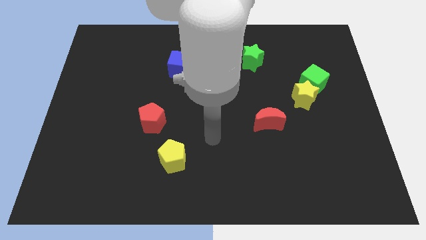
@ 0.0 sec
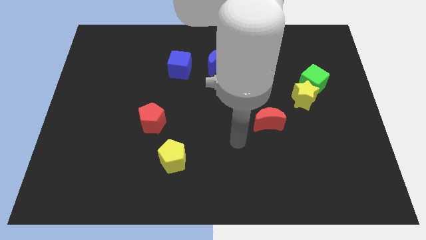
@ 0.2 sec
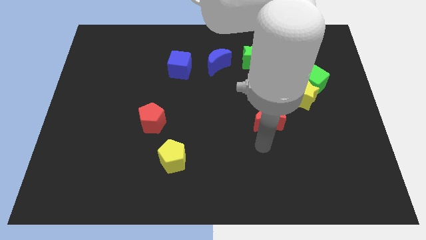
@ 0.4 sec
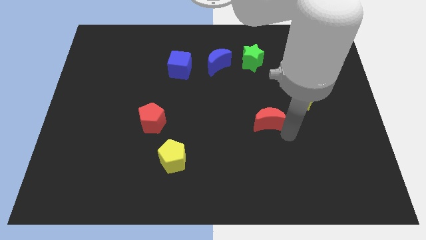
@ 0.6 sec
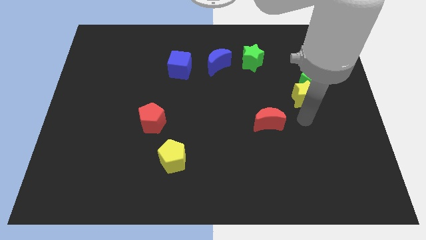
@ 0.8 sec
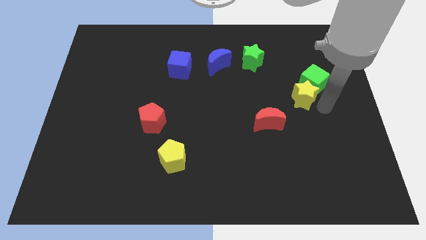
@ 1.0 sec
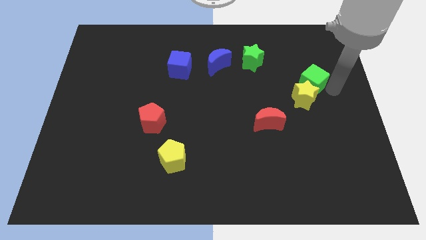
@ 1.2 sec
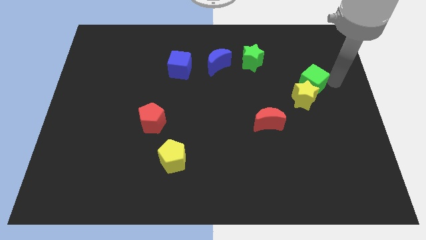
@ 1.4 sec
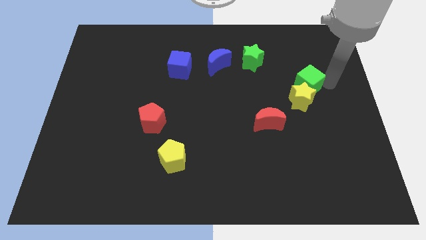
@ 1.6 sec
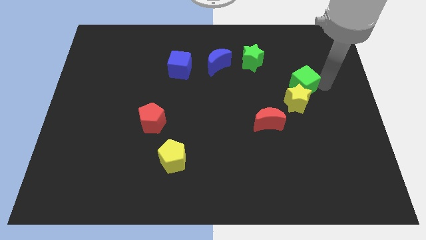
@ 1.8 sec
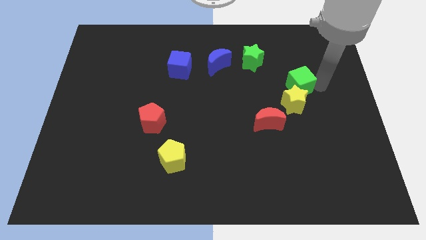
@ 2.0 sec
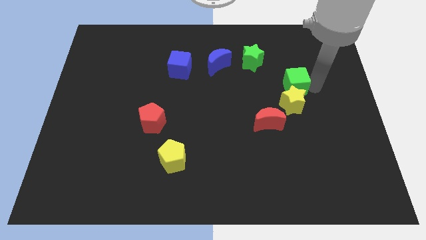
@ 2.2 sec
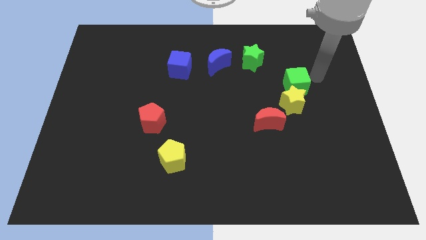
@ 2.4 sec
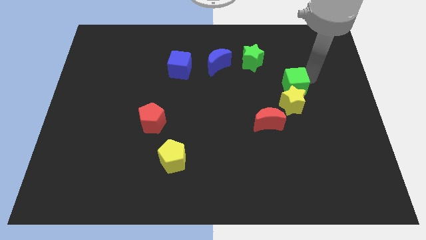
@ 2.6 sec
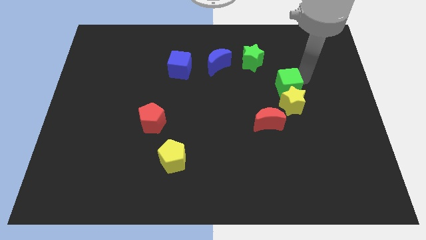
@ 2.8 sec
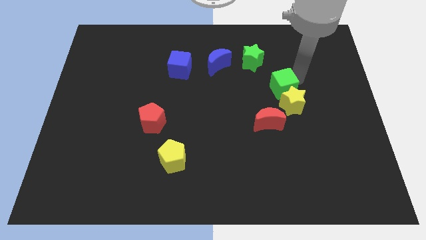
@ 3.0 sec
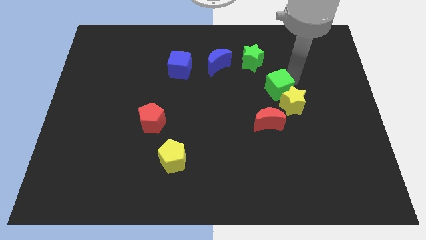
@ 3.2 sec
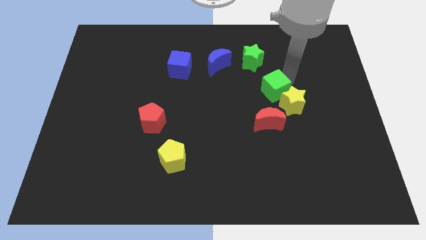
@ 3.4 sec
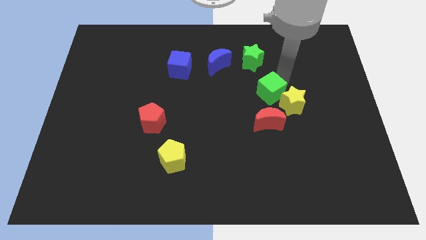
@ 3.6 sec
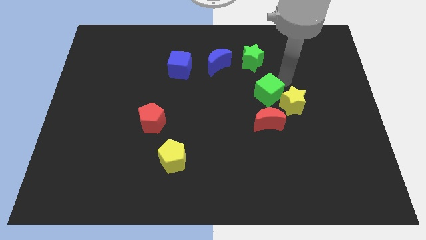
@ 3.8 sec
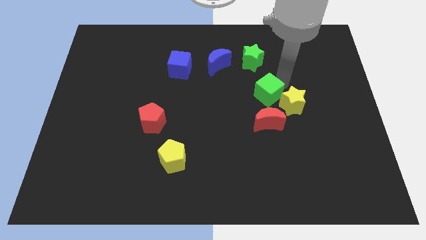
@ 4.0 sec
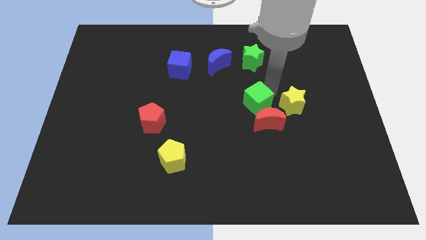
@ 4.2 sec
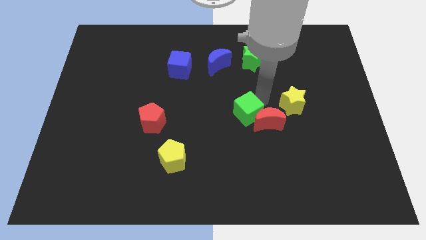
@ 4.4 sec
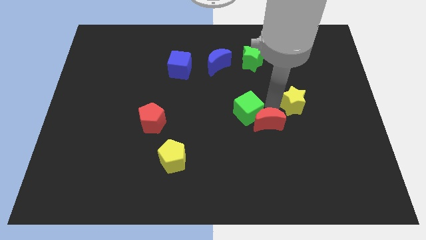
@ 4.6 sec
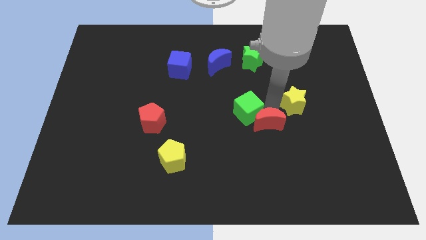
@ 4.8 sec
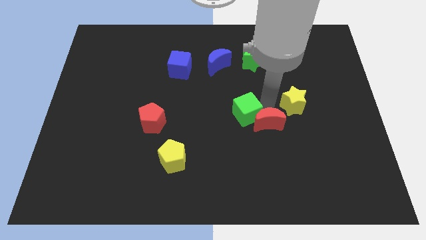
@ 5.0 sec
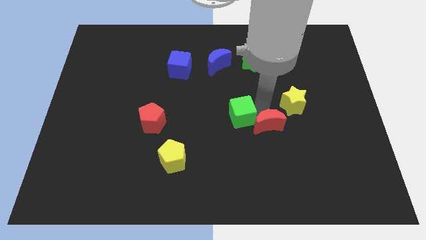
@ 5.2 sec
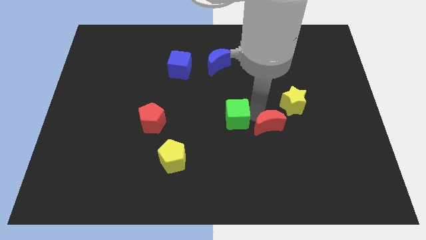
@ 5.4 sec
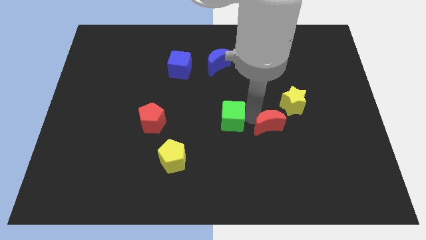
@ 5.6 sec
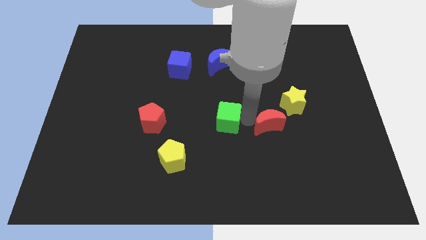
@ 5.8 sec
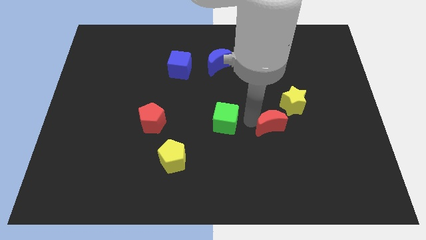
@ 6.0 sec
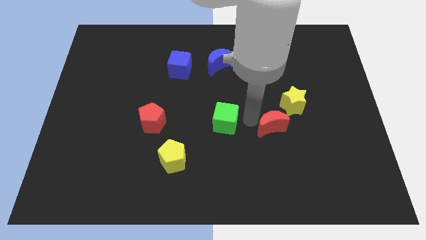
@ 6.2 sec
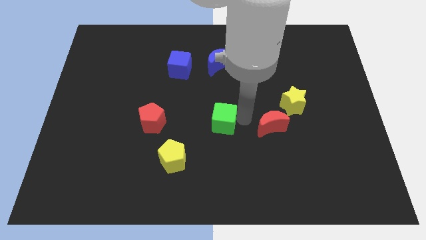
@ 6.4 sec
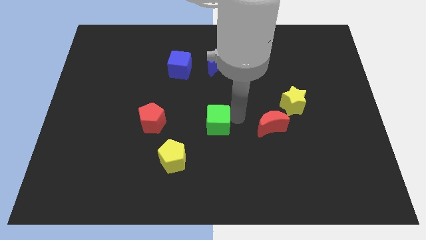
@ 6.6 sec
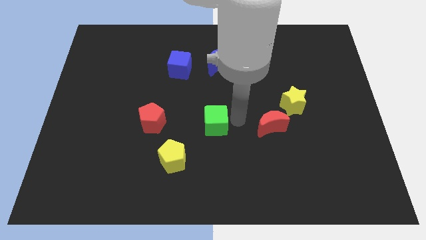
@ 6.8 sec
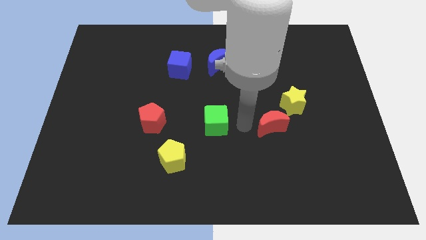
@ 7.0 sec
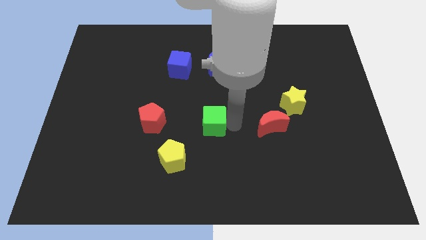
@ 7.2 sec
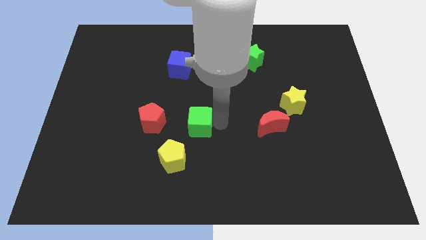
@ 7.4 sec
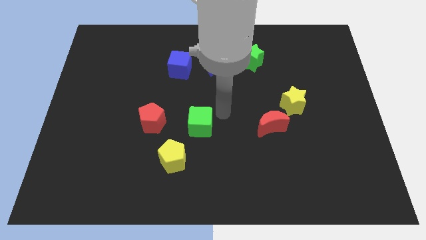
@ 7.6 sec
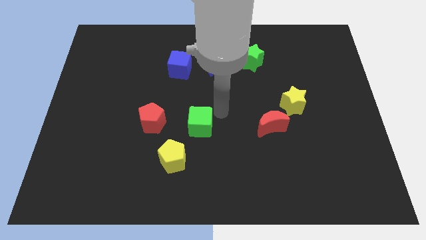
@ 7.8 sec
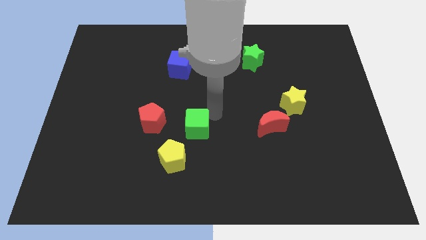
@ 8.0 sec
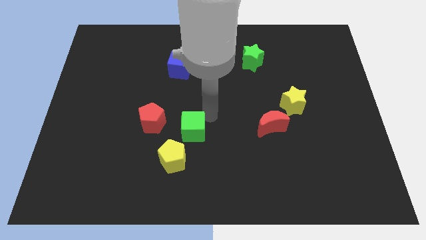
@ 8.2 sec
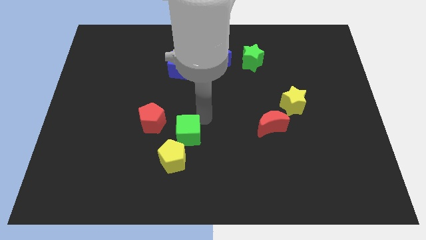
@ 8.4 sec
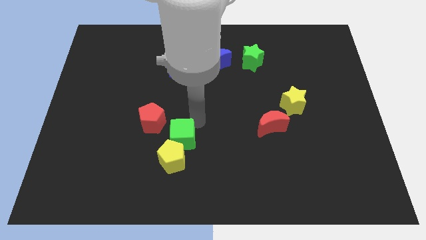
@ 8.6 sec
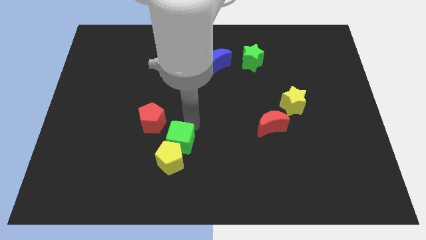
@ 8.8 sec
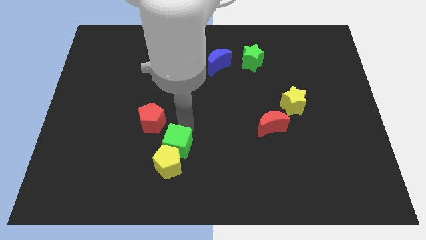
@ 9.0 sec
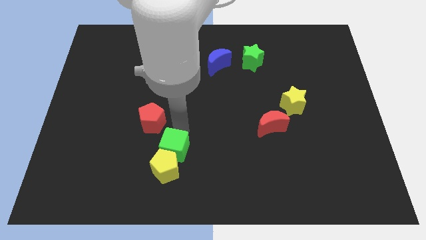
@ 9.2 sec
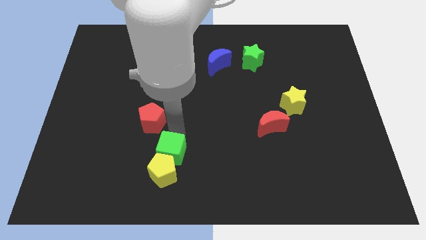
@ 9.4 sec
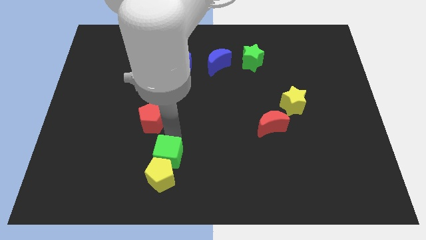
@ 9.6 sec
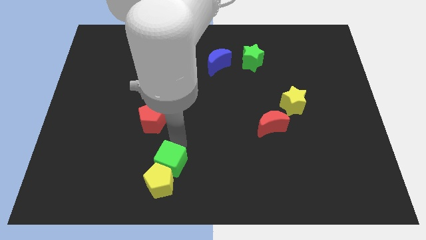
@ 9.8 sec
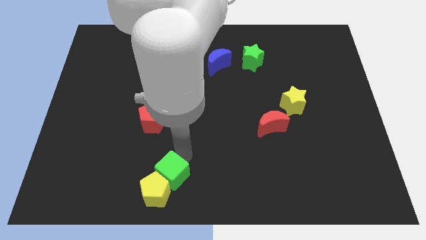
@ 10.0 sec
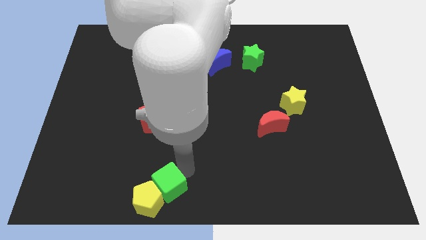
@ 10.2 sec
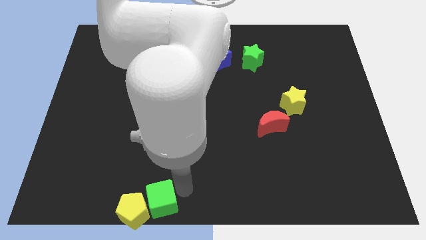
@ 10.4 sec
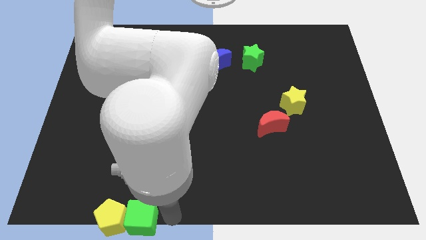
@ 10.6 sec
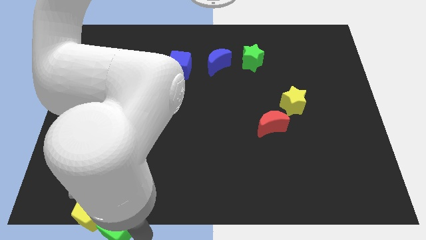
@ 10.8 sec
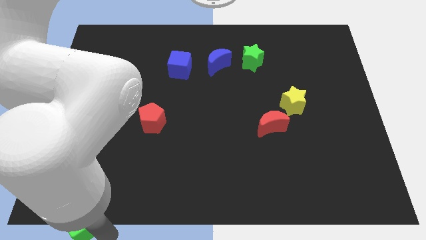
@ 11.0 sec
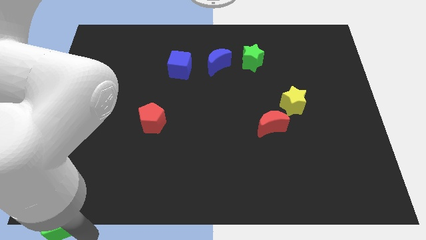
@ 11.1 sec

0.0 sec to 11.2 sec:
put the green cube to the lower left corner

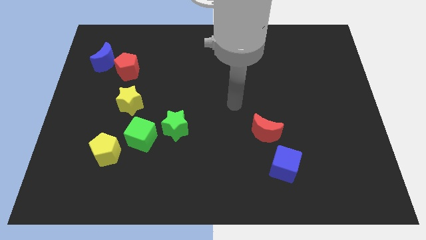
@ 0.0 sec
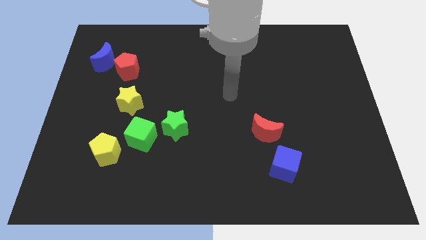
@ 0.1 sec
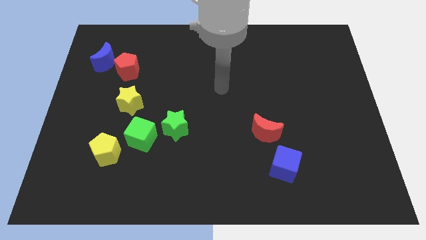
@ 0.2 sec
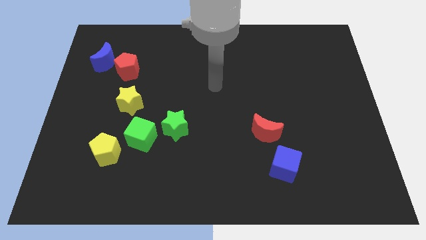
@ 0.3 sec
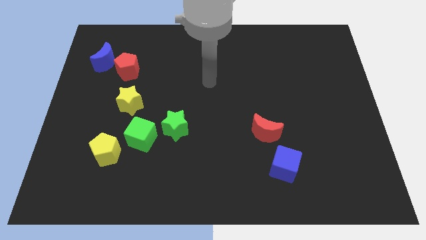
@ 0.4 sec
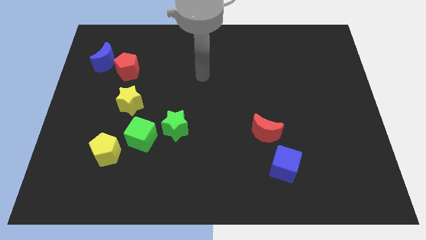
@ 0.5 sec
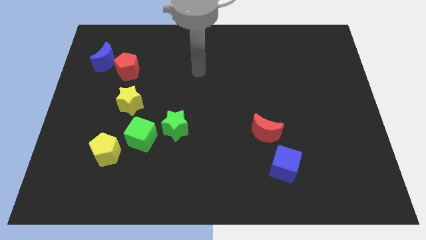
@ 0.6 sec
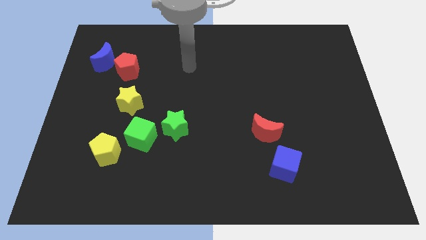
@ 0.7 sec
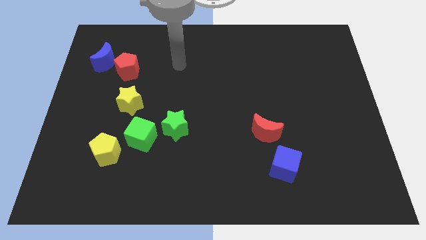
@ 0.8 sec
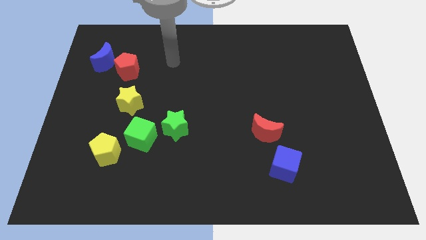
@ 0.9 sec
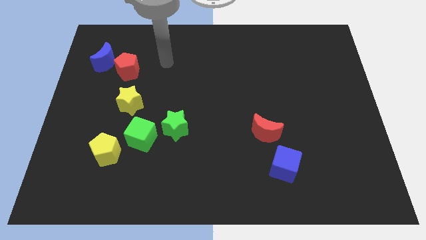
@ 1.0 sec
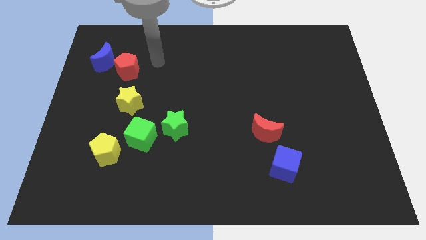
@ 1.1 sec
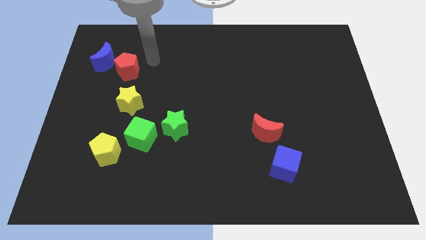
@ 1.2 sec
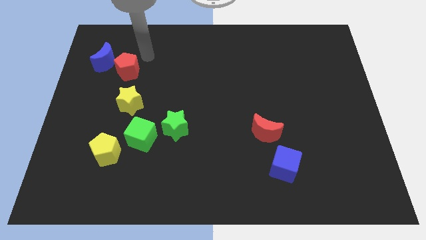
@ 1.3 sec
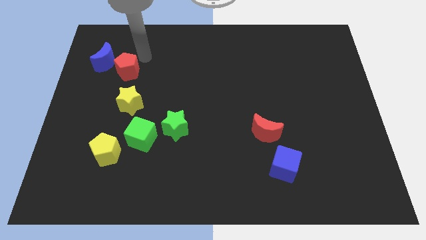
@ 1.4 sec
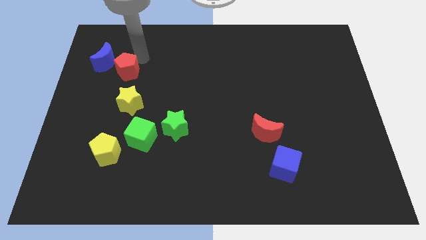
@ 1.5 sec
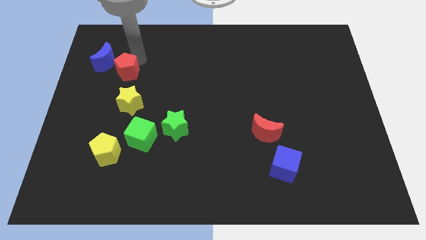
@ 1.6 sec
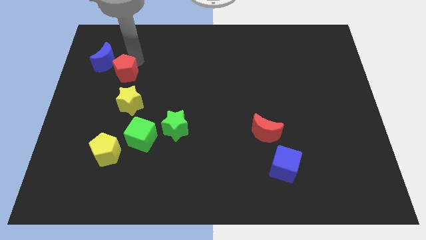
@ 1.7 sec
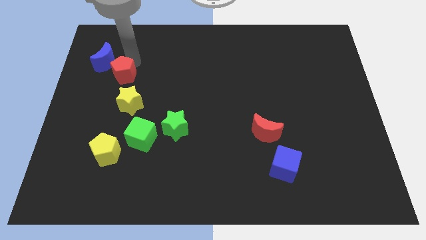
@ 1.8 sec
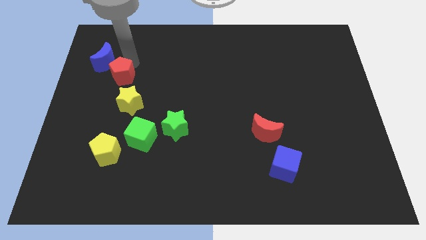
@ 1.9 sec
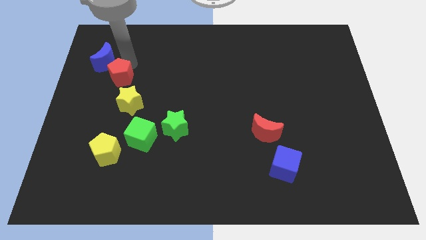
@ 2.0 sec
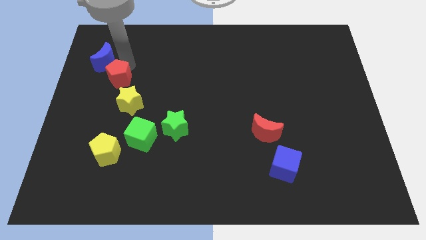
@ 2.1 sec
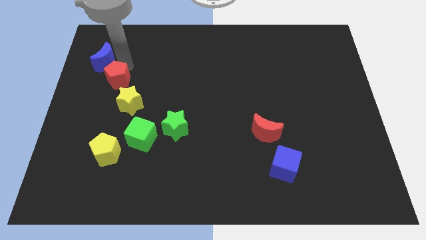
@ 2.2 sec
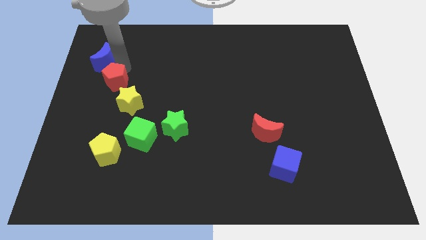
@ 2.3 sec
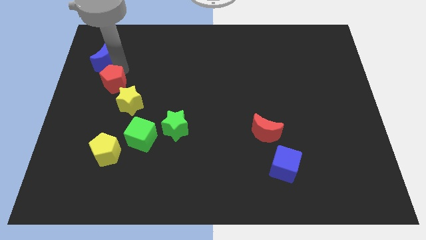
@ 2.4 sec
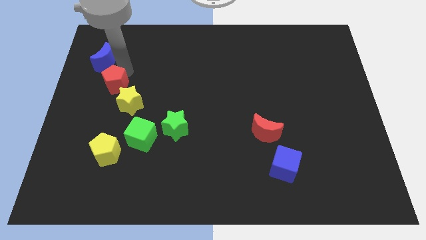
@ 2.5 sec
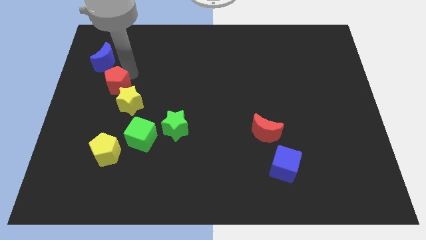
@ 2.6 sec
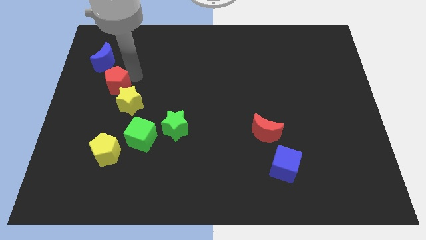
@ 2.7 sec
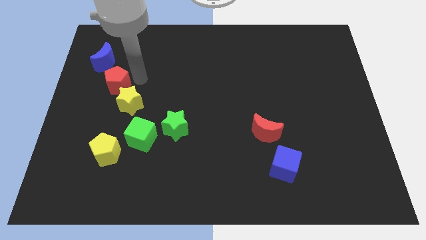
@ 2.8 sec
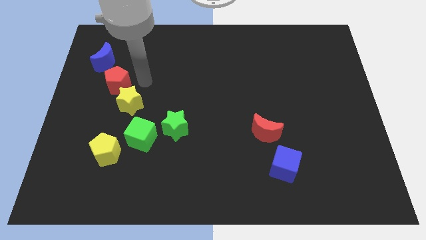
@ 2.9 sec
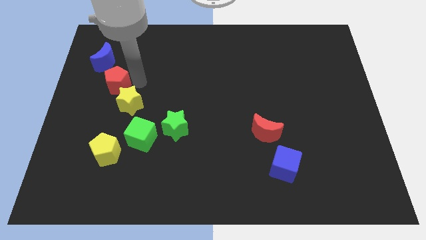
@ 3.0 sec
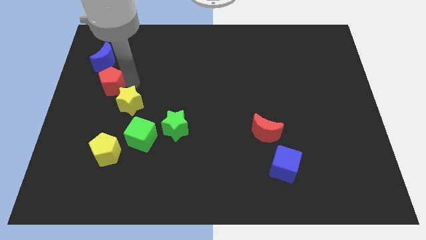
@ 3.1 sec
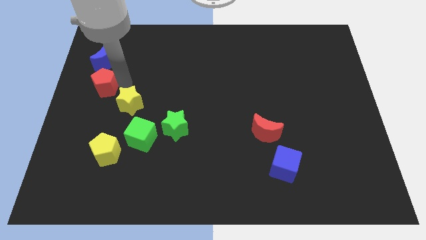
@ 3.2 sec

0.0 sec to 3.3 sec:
slide the red pentagon to the left side
